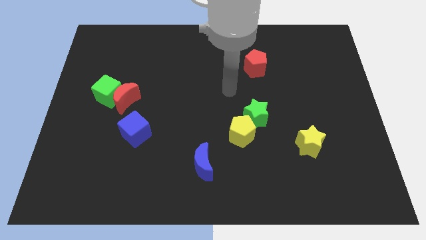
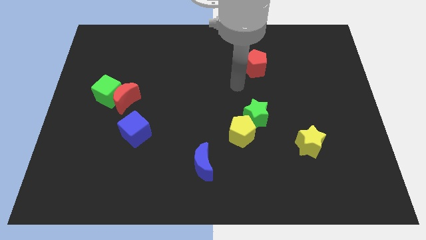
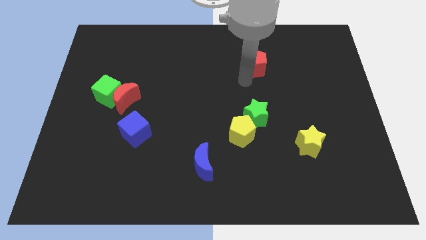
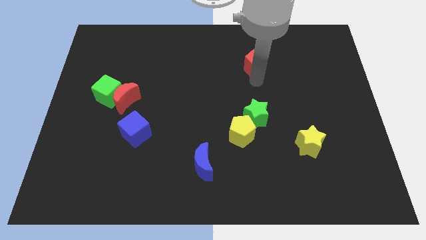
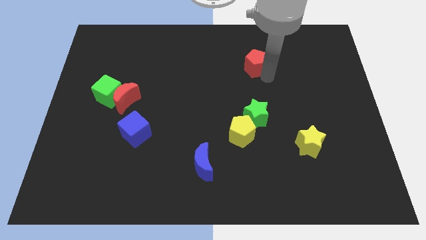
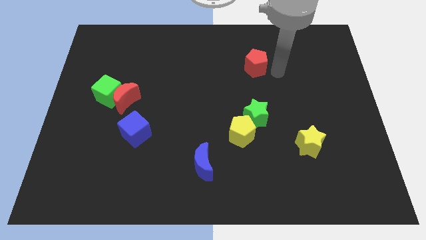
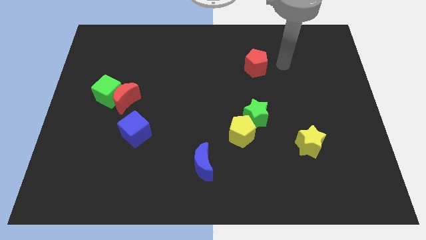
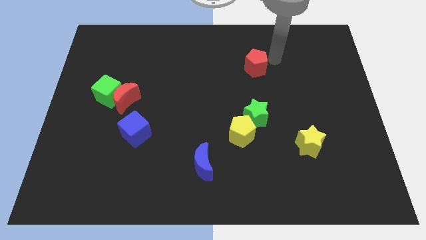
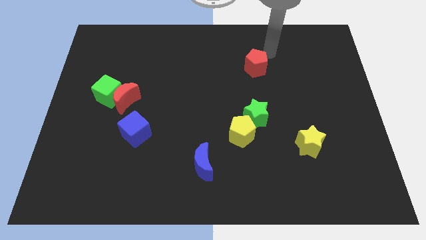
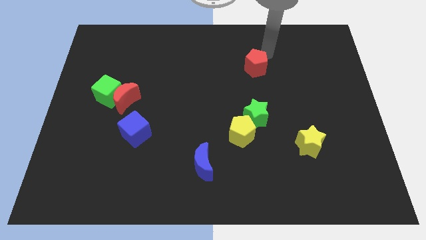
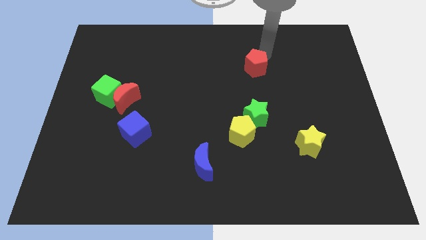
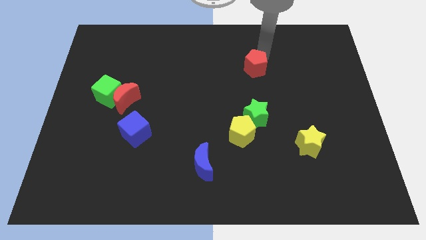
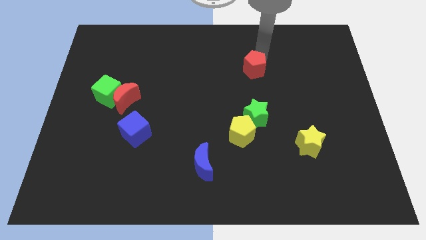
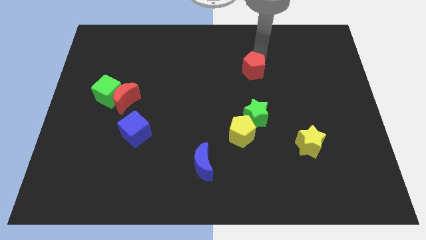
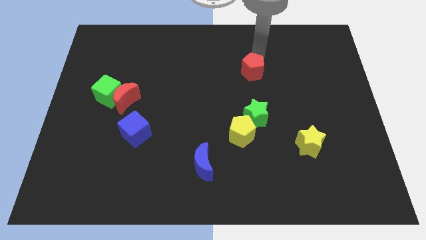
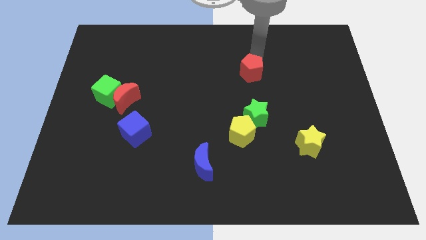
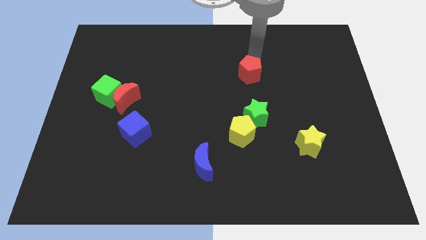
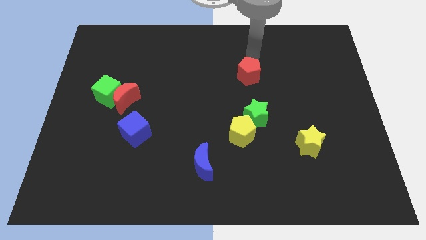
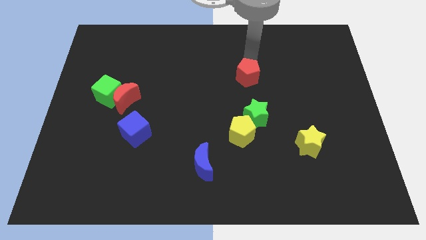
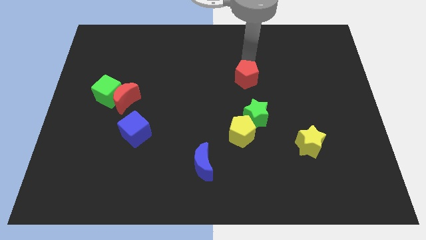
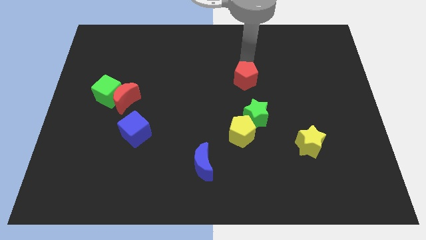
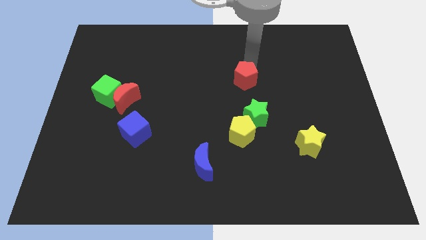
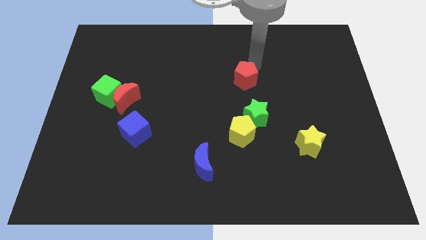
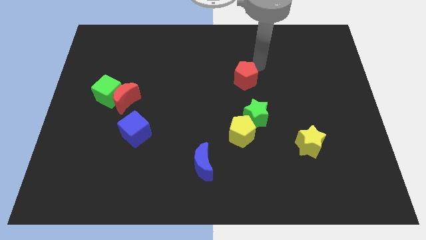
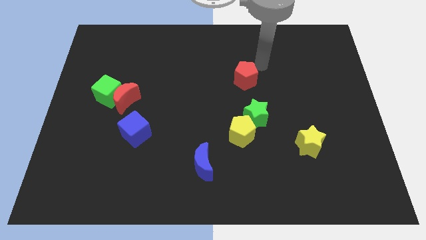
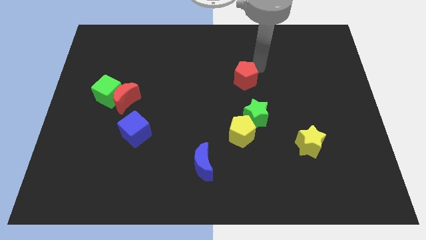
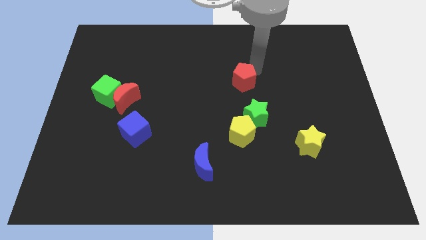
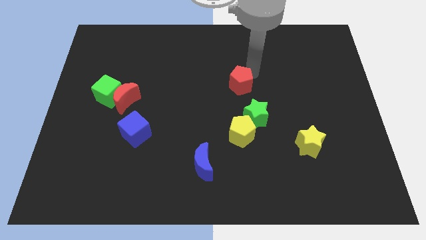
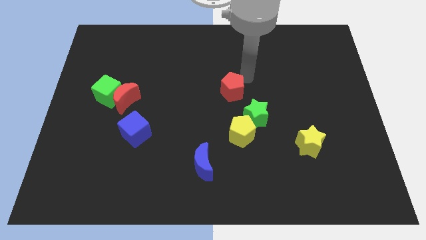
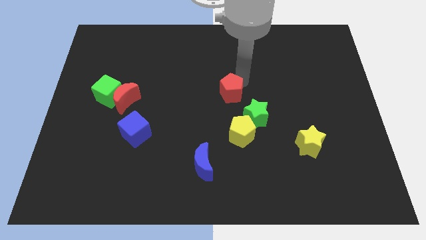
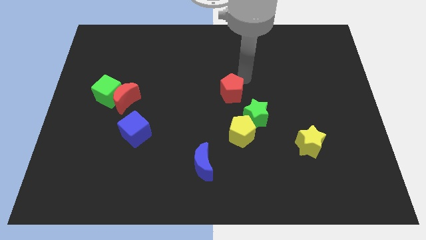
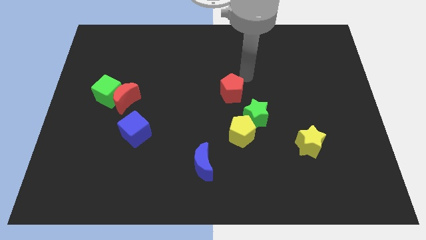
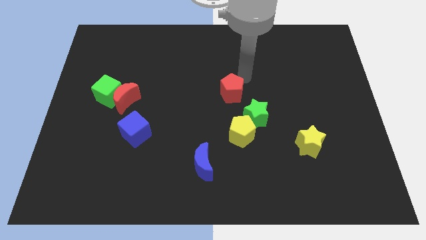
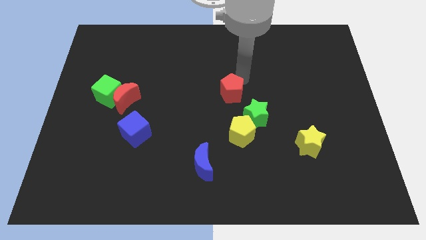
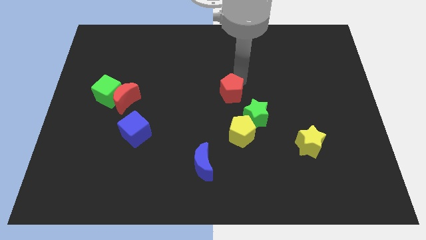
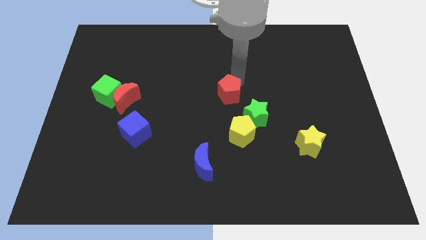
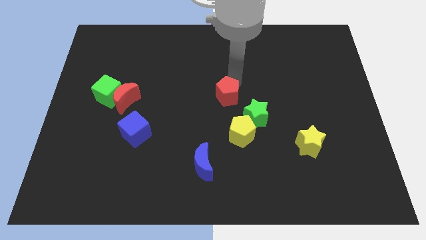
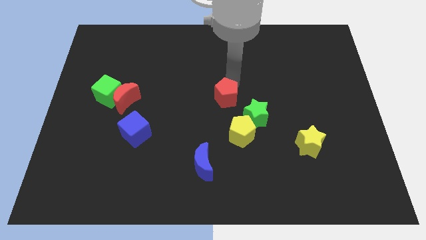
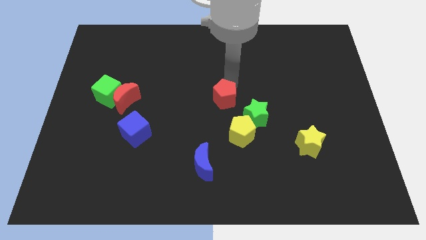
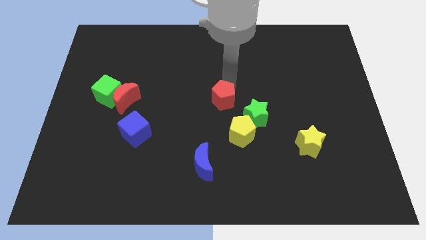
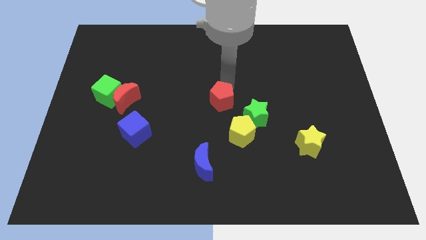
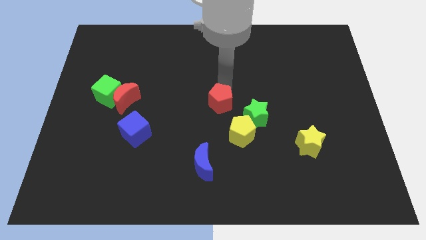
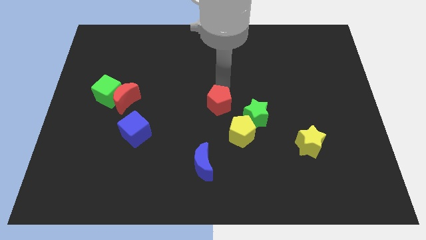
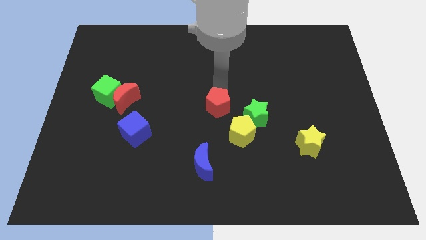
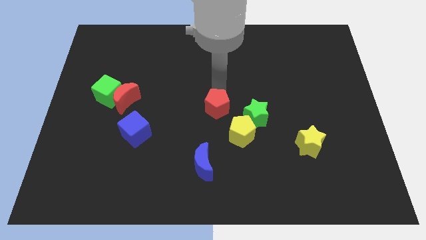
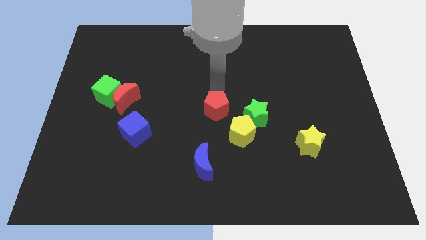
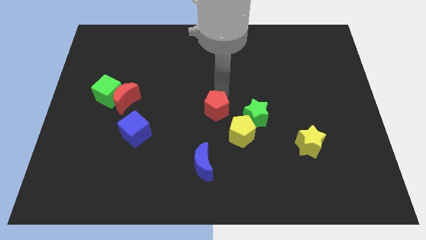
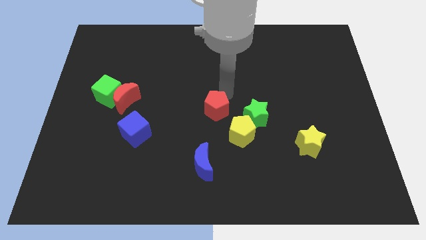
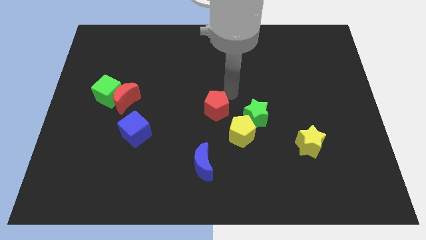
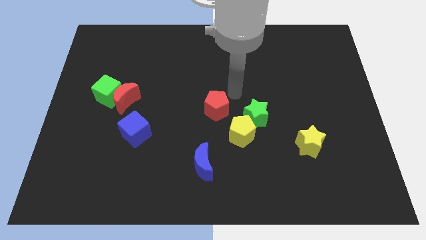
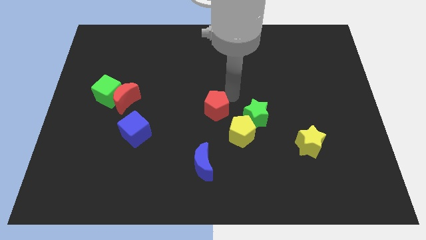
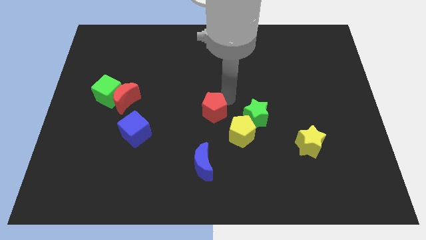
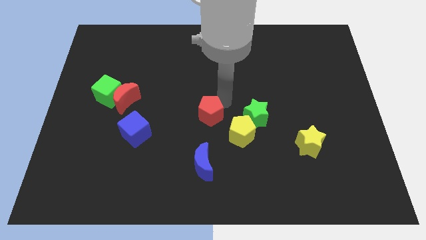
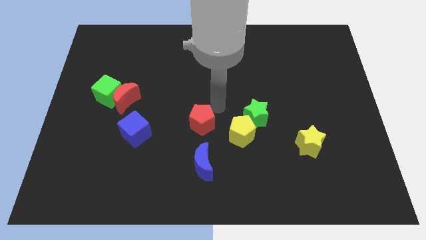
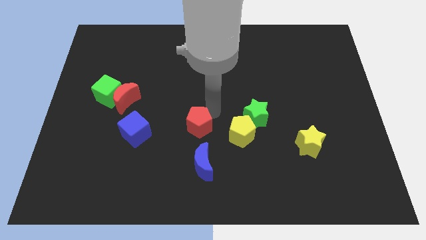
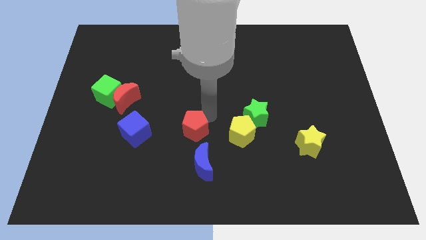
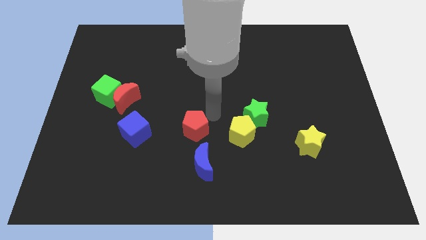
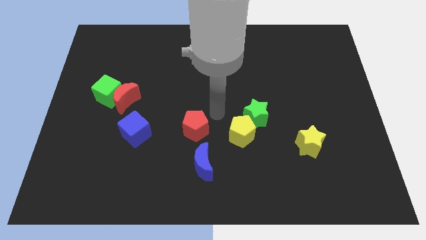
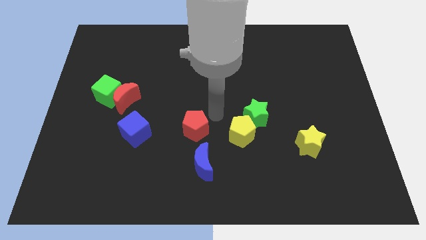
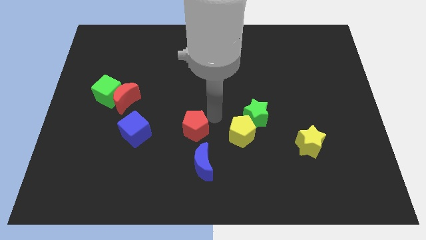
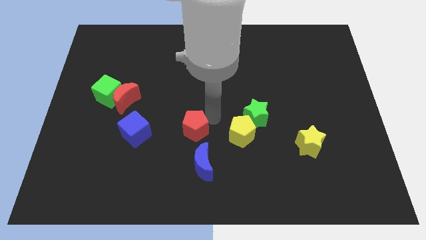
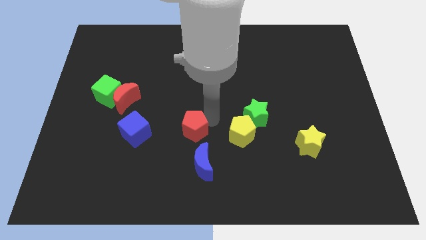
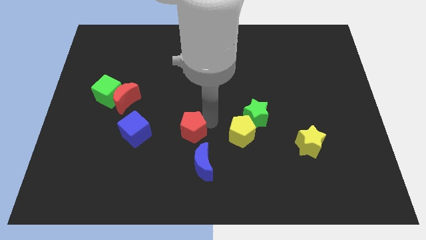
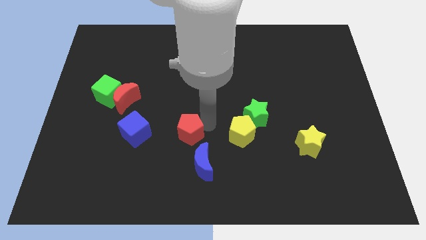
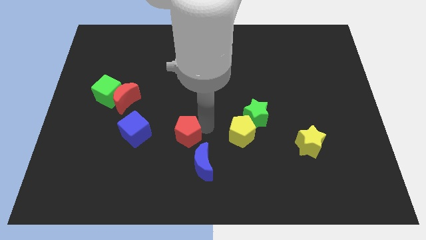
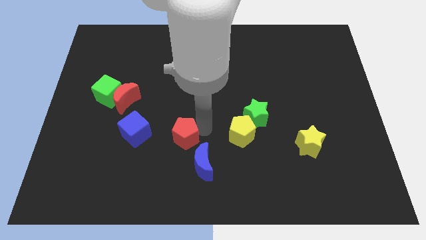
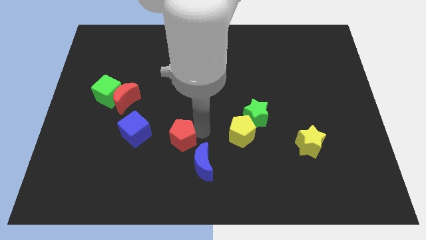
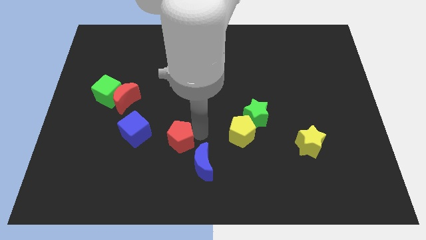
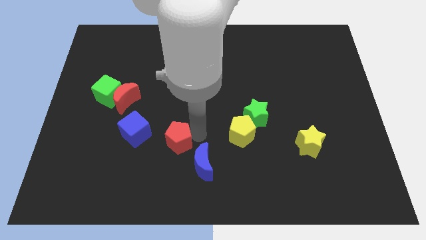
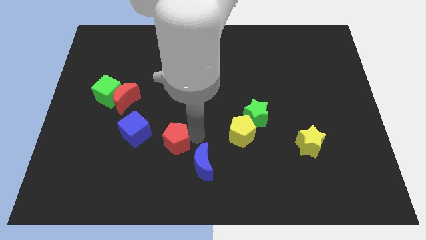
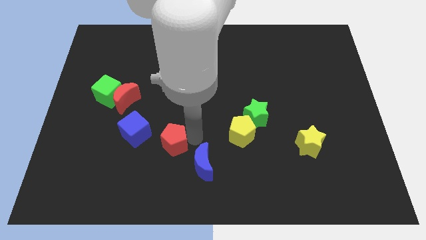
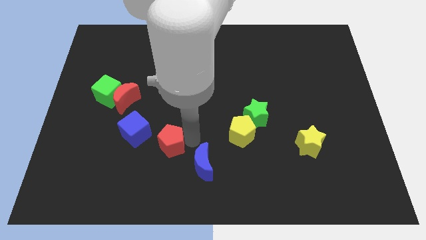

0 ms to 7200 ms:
push the red pentagon to the left of the blue moon

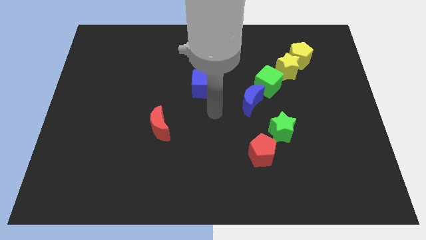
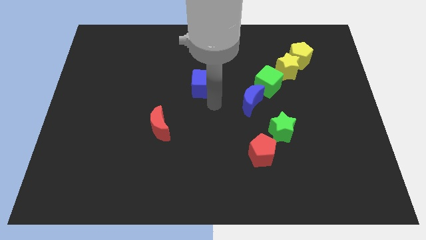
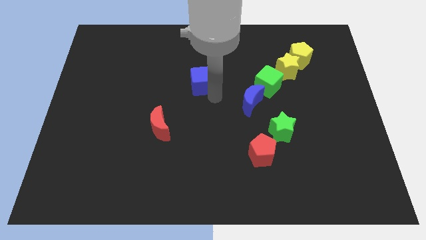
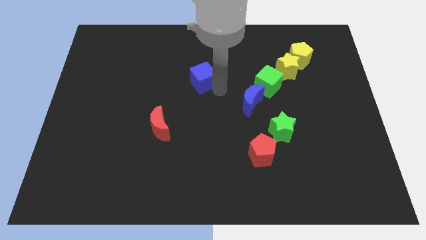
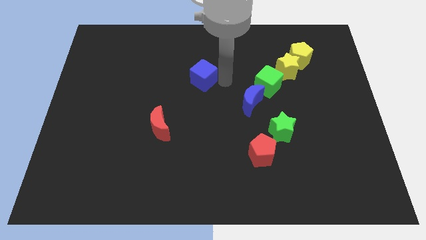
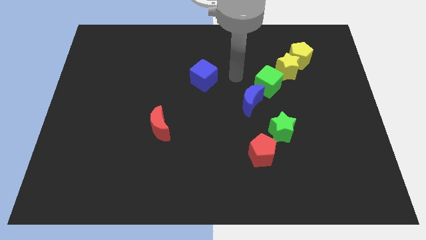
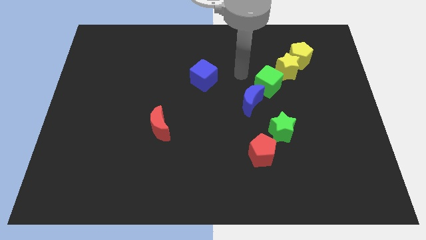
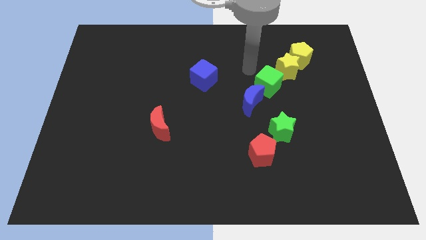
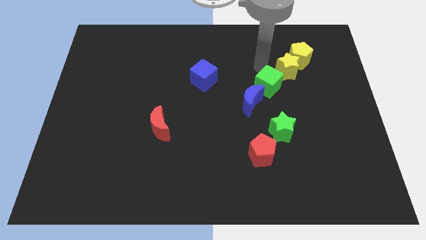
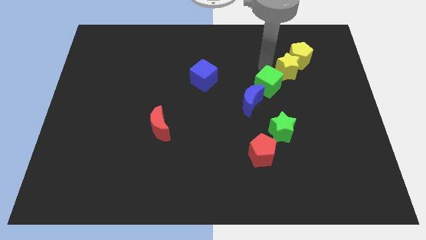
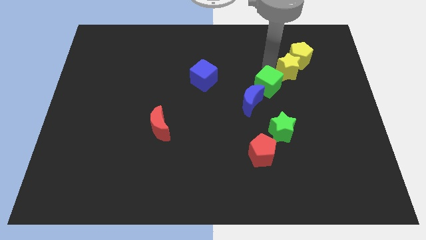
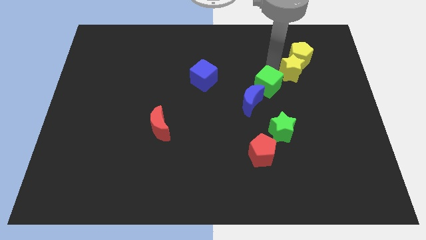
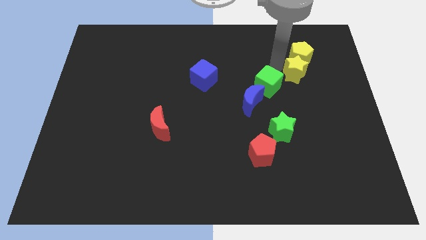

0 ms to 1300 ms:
slide the yellow star to the bottom right of the yellow pentagon
